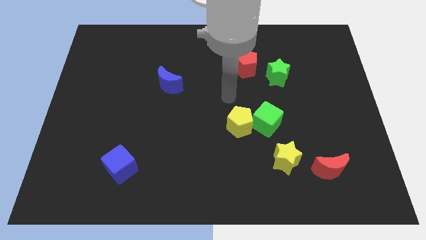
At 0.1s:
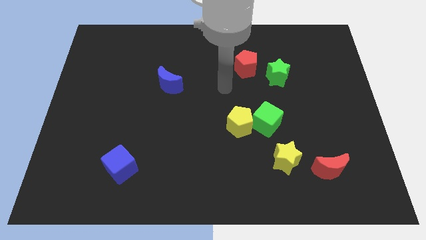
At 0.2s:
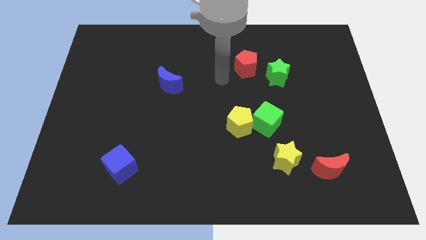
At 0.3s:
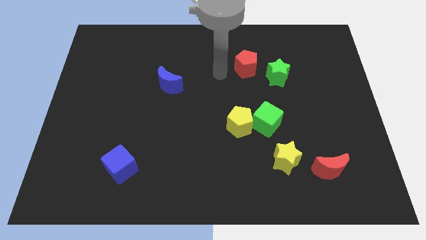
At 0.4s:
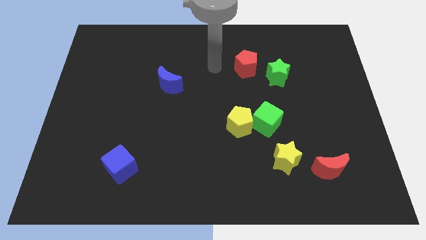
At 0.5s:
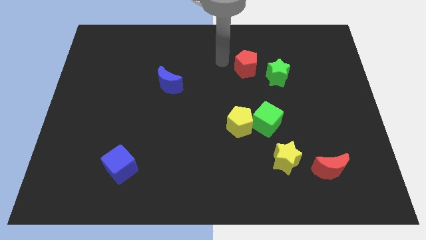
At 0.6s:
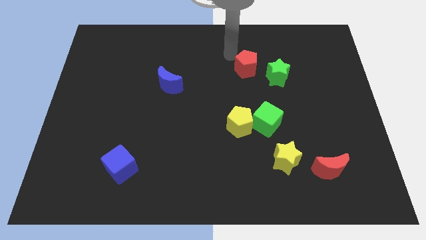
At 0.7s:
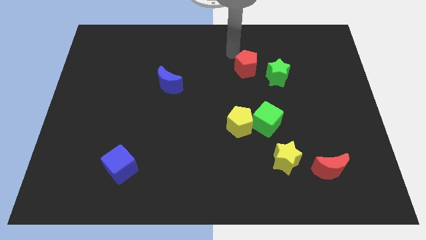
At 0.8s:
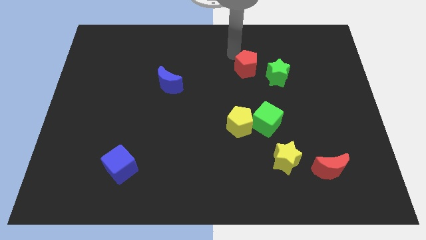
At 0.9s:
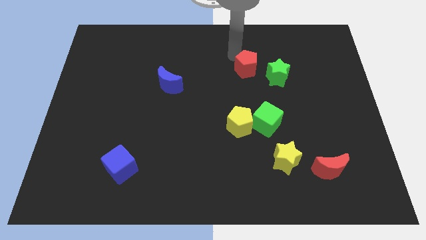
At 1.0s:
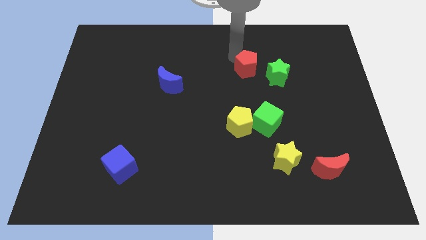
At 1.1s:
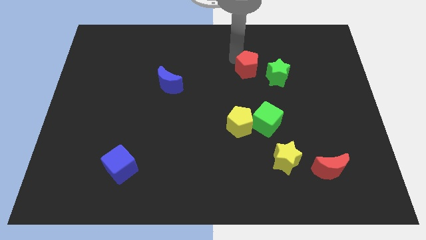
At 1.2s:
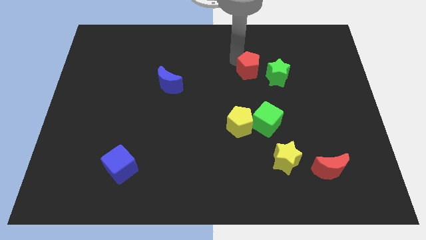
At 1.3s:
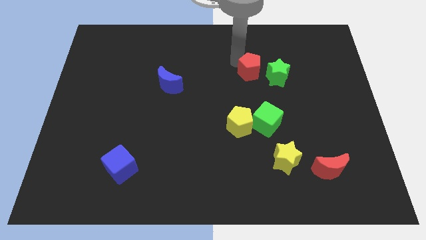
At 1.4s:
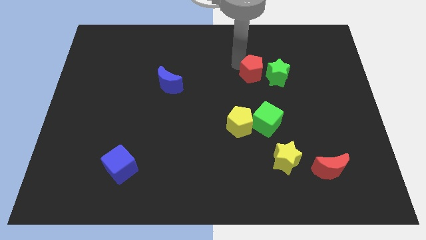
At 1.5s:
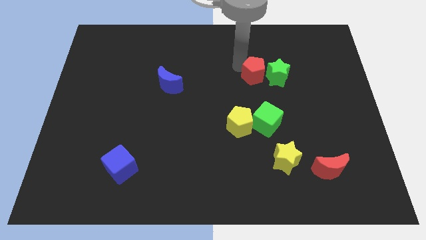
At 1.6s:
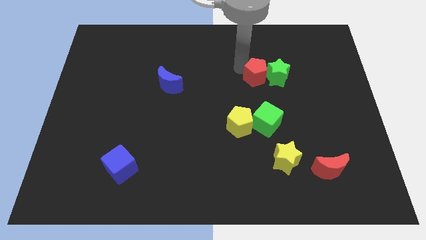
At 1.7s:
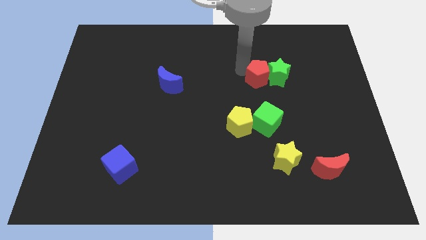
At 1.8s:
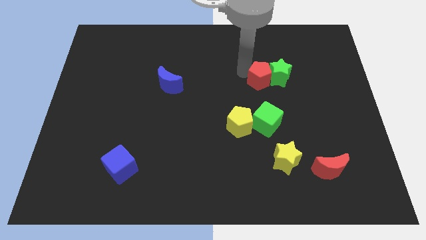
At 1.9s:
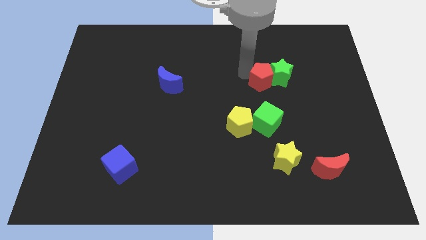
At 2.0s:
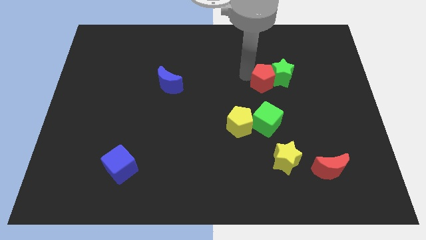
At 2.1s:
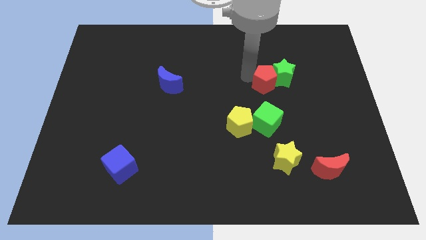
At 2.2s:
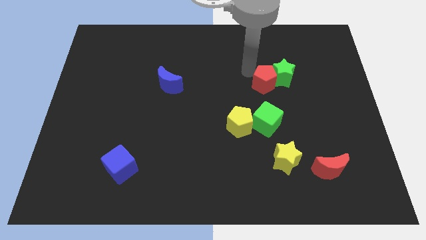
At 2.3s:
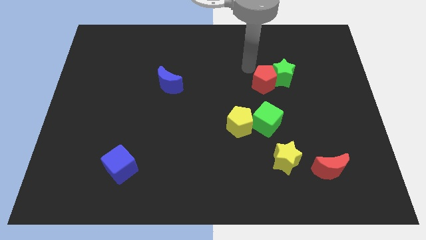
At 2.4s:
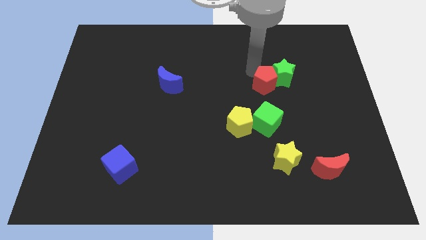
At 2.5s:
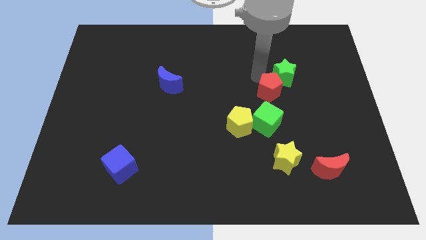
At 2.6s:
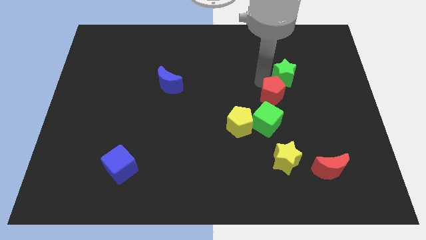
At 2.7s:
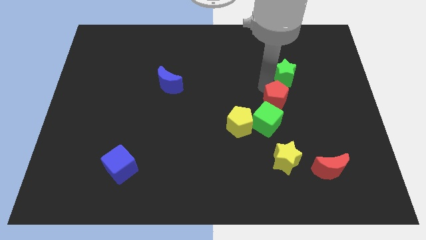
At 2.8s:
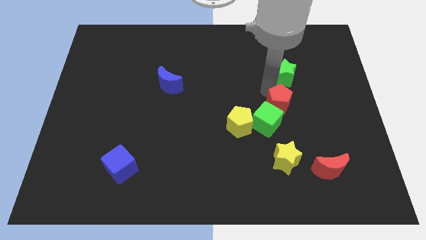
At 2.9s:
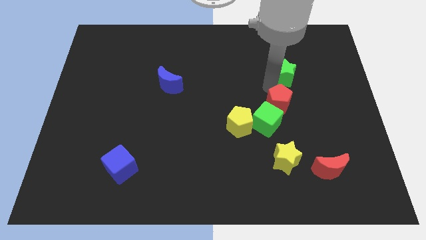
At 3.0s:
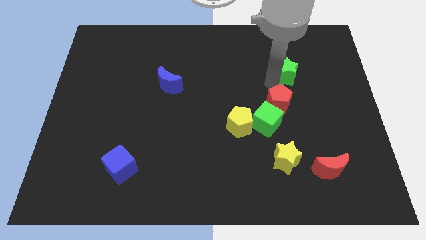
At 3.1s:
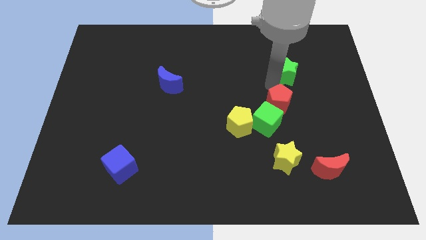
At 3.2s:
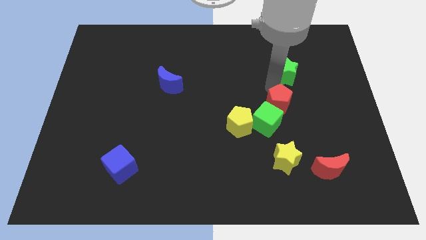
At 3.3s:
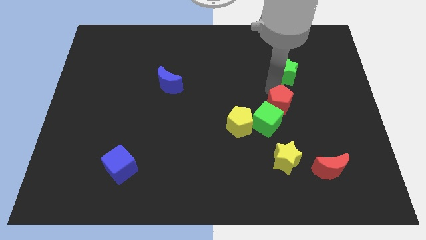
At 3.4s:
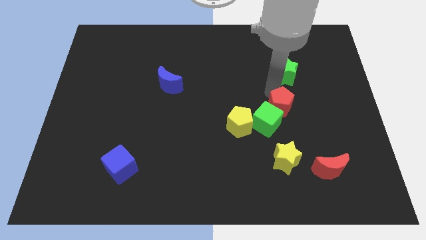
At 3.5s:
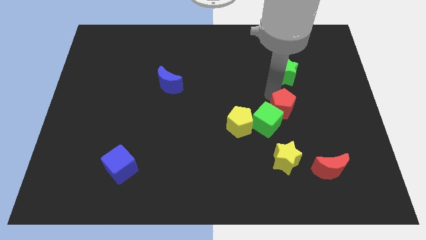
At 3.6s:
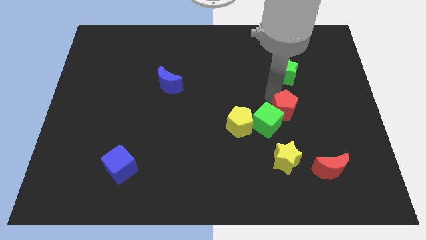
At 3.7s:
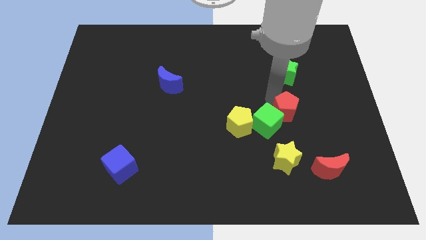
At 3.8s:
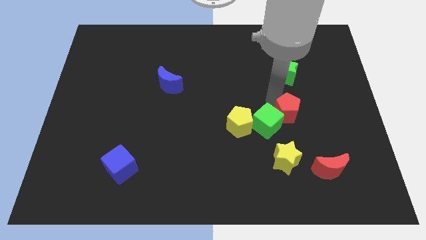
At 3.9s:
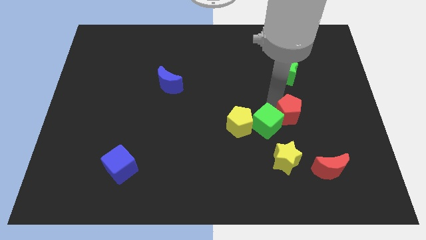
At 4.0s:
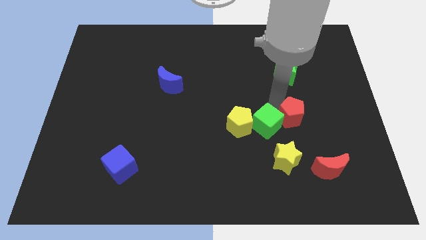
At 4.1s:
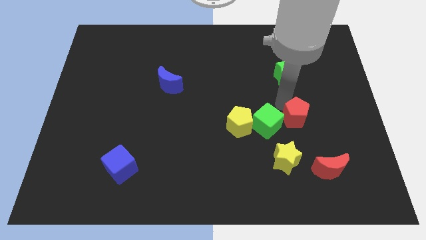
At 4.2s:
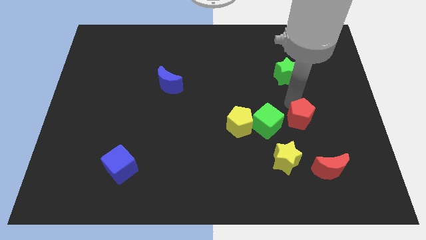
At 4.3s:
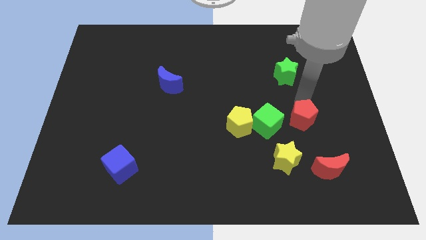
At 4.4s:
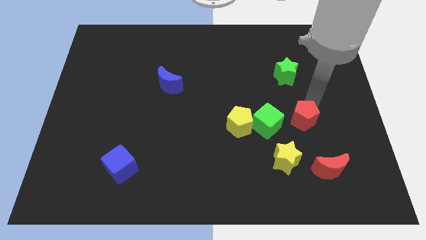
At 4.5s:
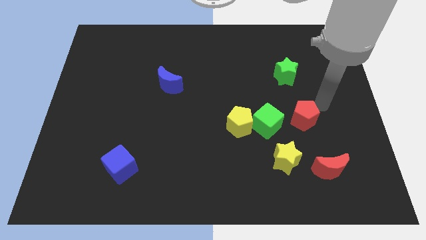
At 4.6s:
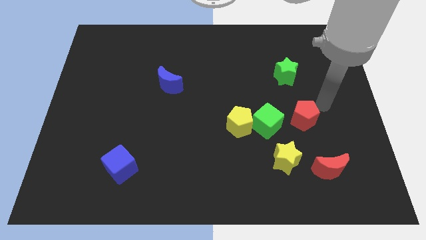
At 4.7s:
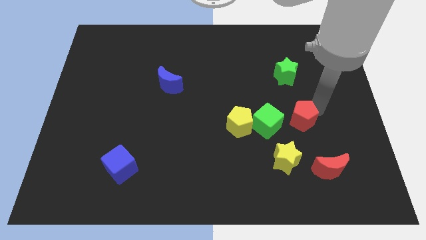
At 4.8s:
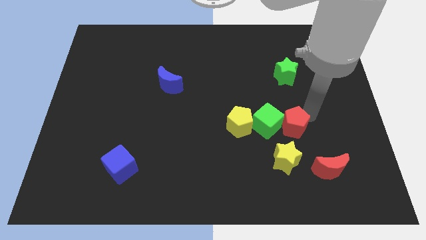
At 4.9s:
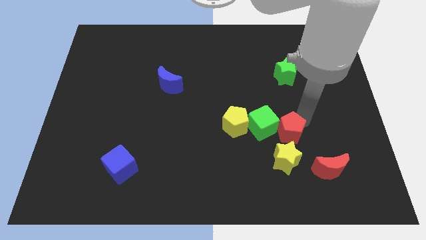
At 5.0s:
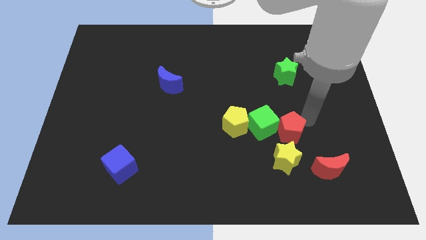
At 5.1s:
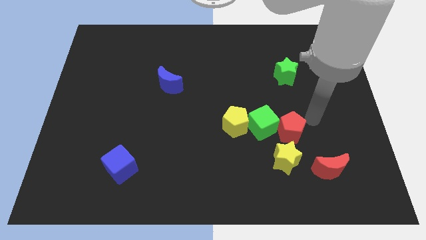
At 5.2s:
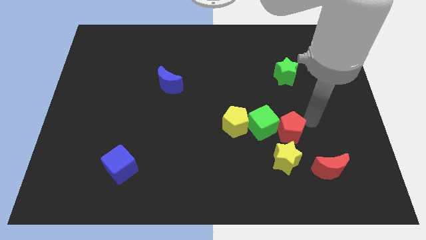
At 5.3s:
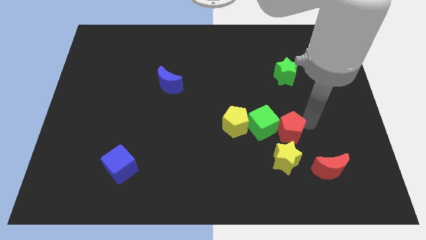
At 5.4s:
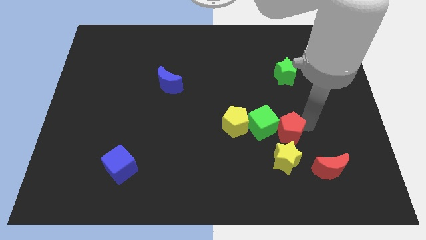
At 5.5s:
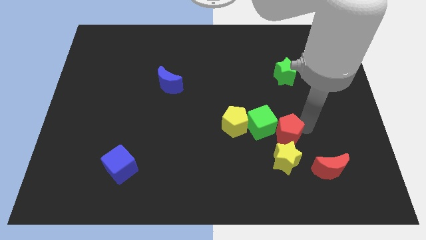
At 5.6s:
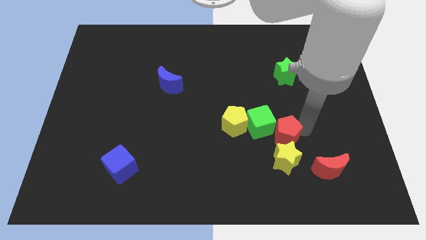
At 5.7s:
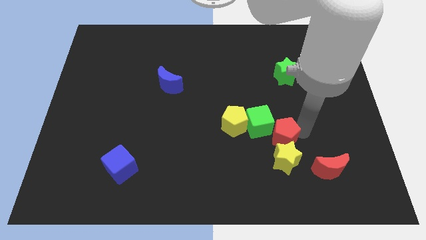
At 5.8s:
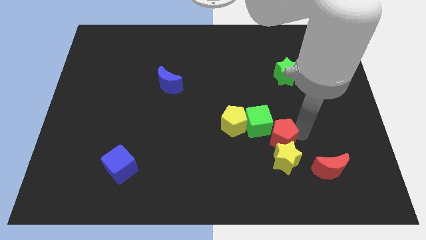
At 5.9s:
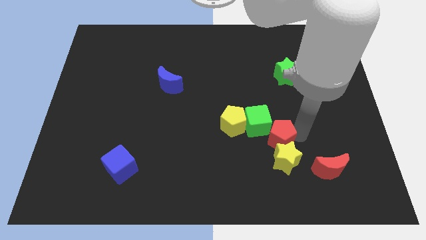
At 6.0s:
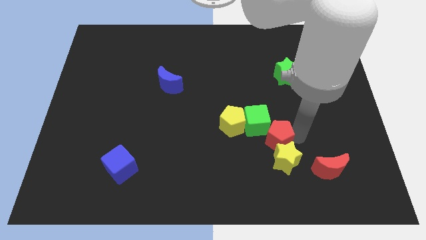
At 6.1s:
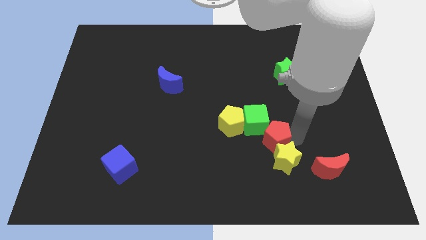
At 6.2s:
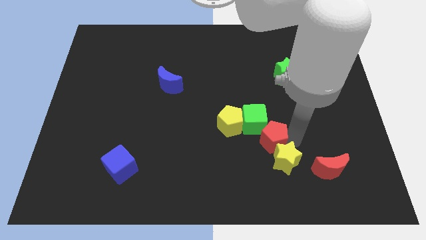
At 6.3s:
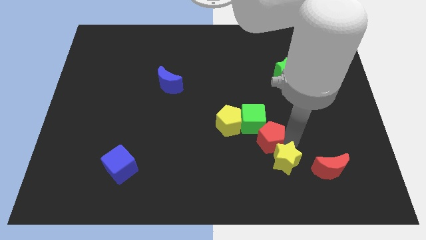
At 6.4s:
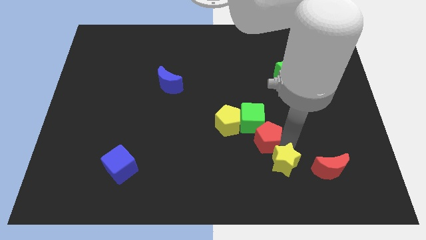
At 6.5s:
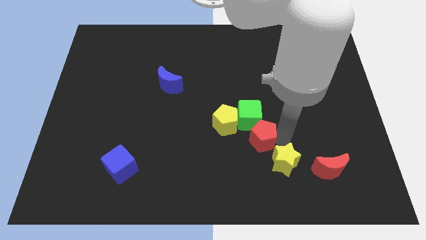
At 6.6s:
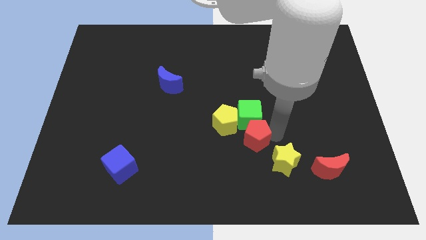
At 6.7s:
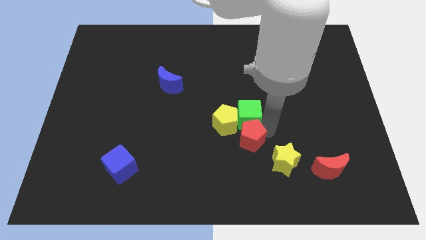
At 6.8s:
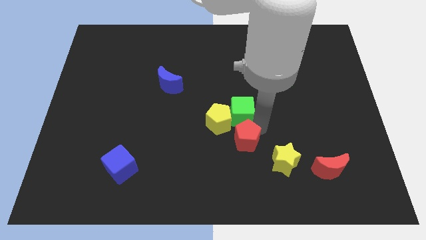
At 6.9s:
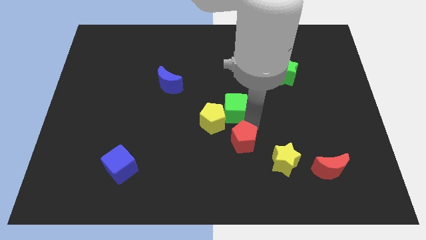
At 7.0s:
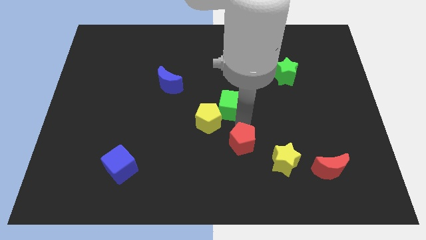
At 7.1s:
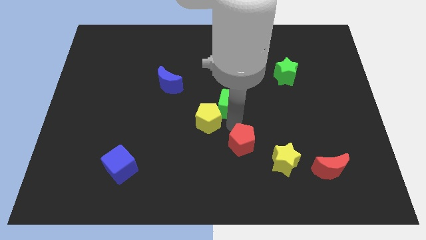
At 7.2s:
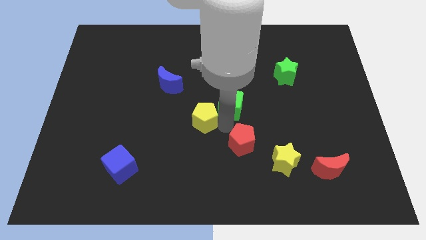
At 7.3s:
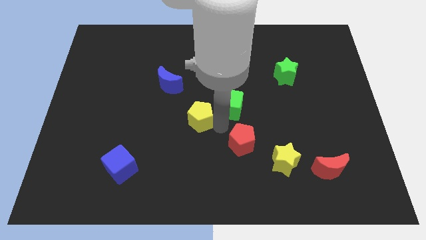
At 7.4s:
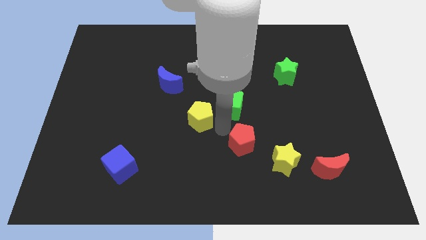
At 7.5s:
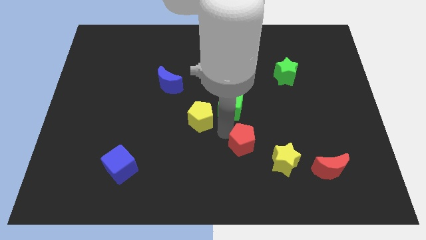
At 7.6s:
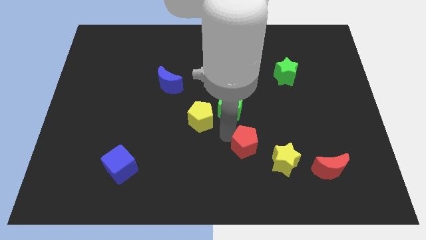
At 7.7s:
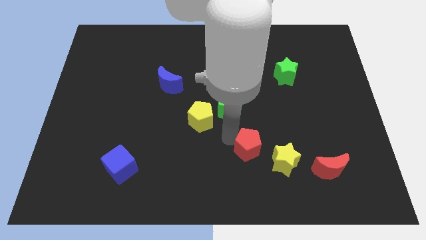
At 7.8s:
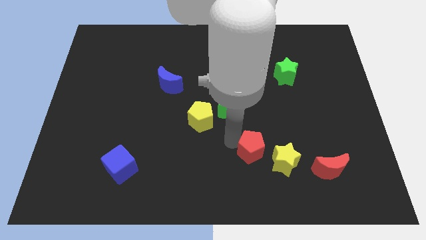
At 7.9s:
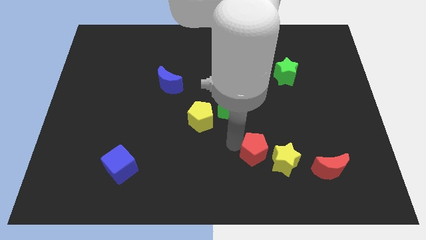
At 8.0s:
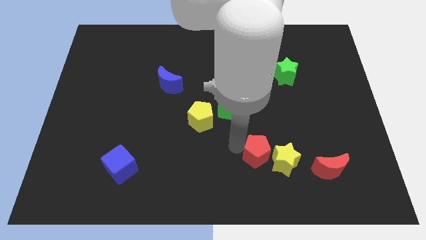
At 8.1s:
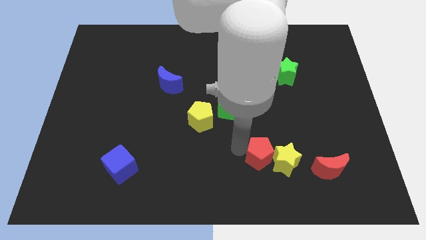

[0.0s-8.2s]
put the red pentagon to the left side of the red moon
